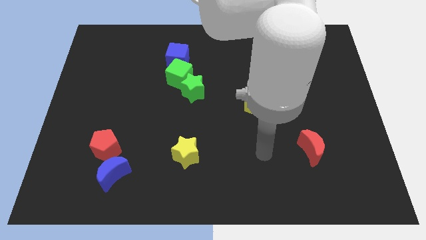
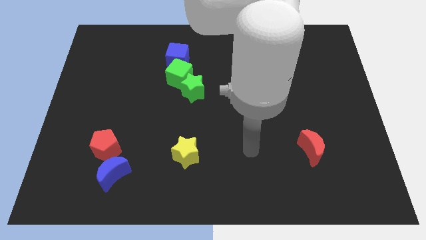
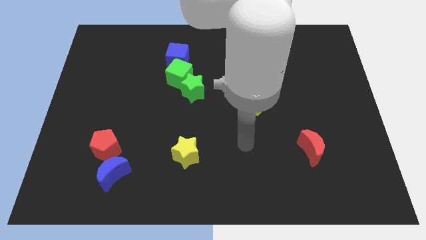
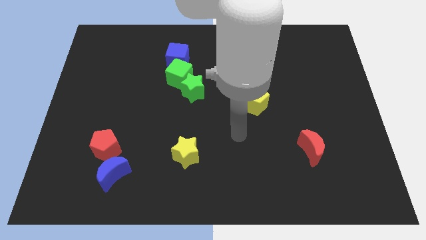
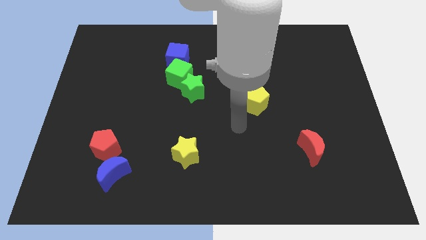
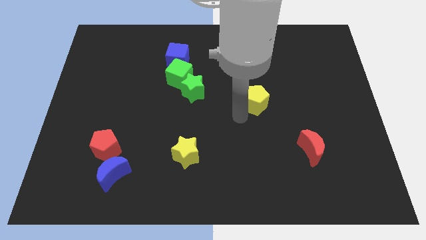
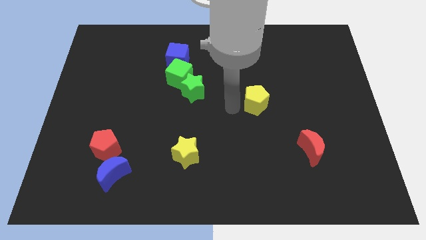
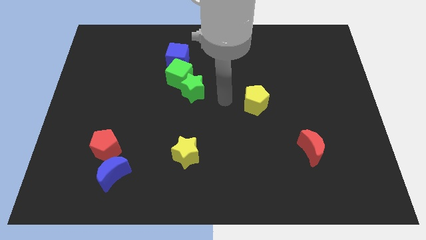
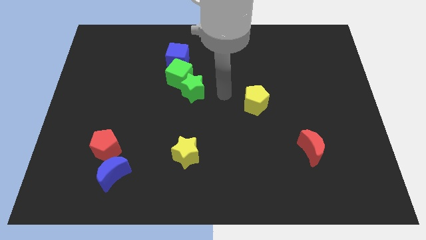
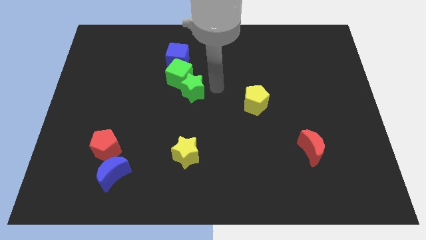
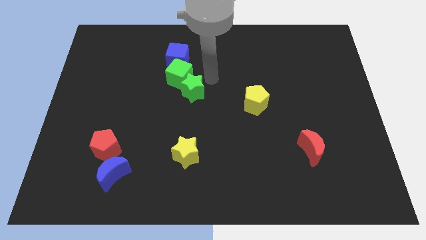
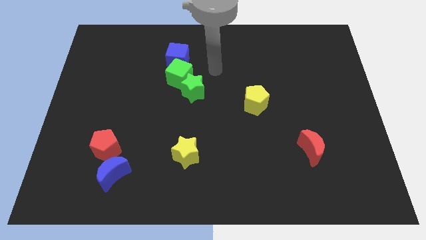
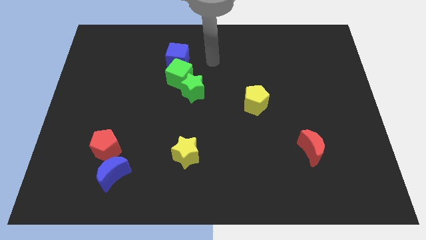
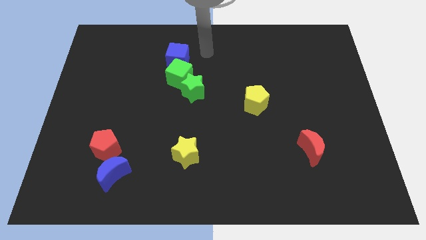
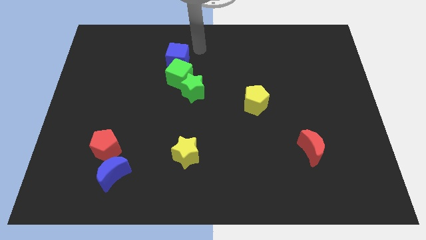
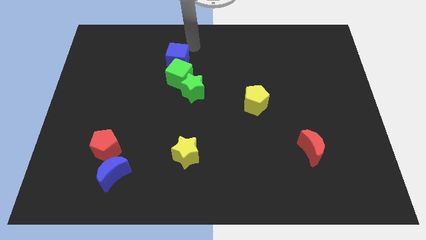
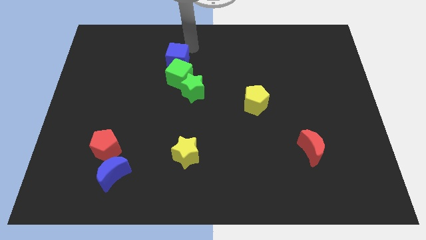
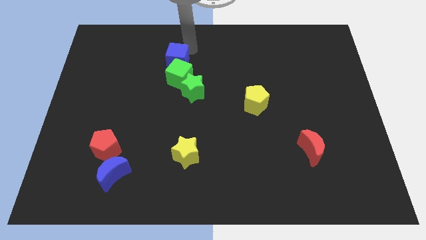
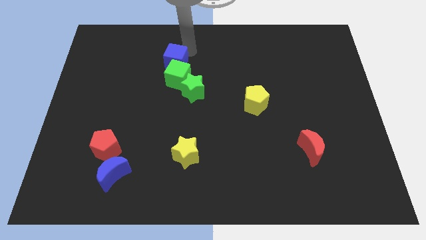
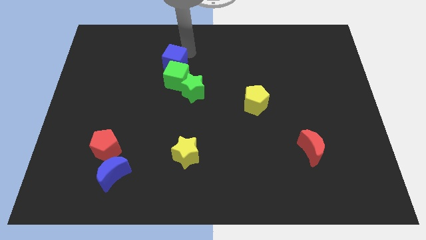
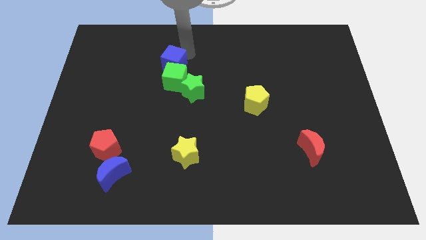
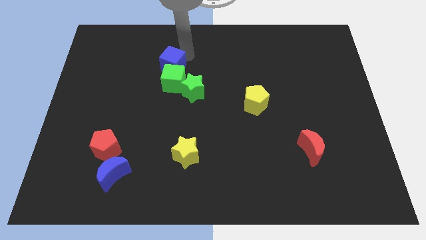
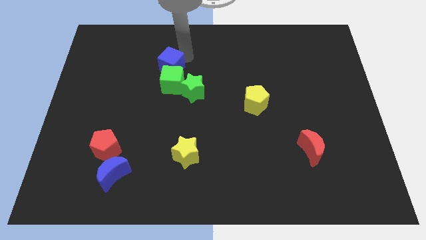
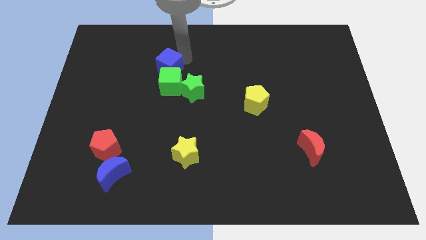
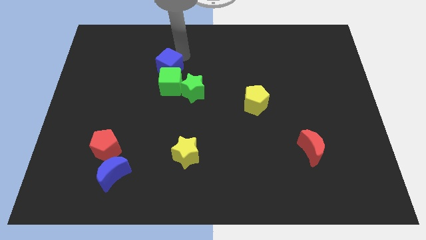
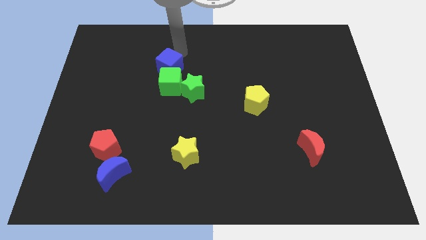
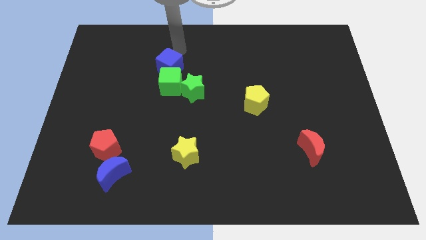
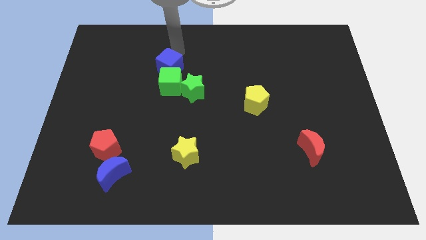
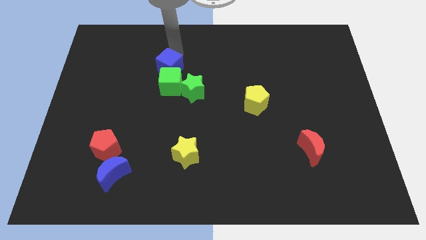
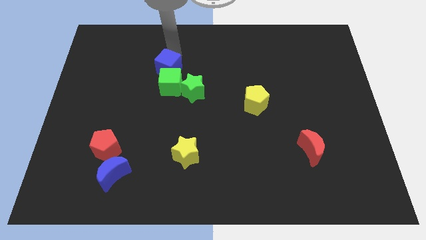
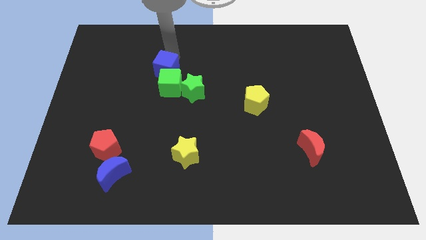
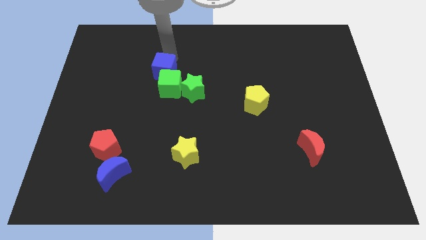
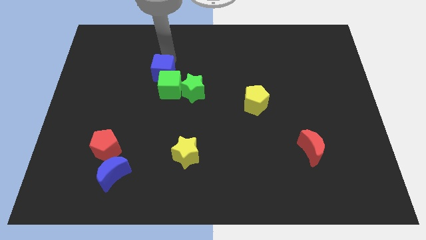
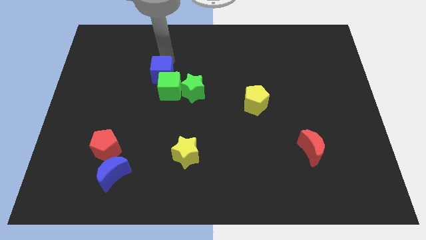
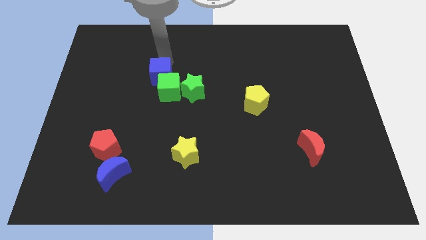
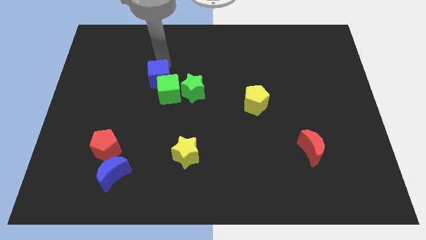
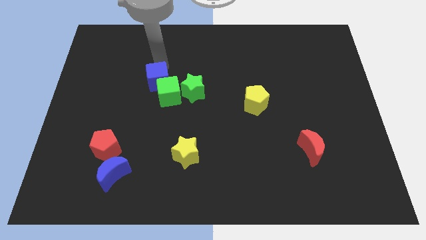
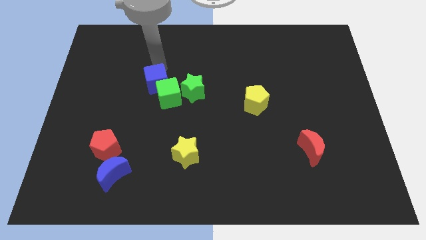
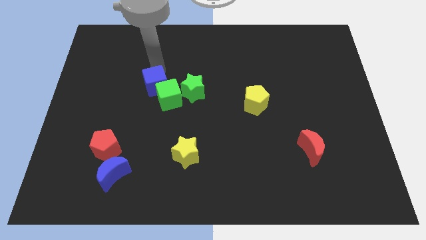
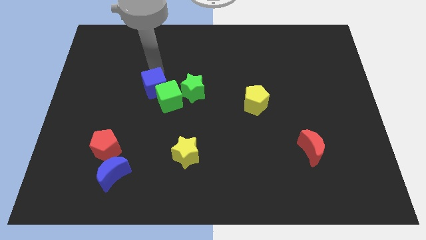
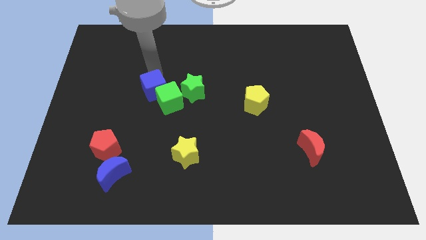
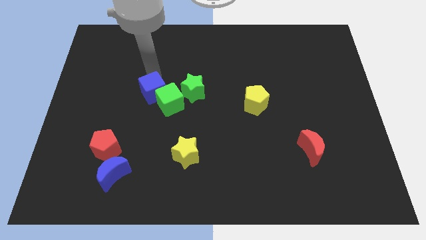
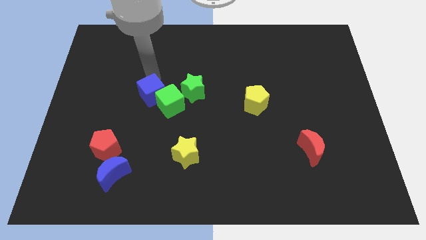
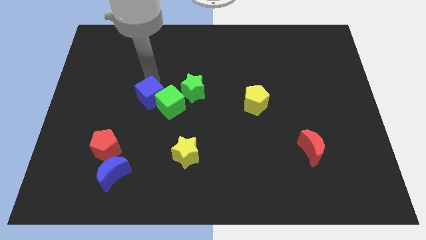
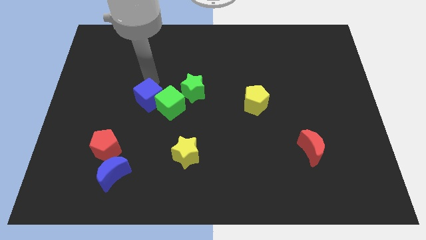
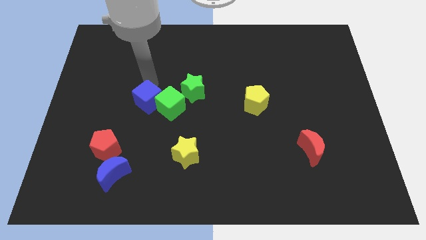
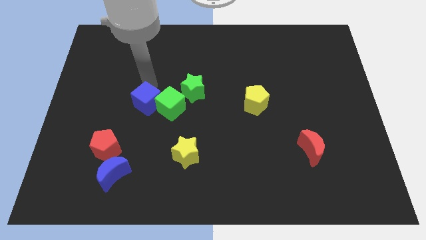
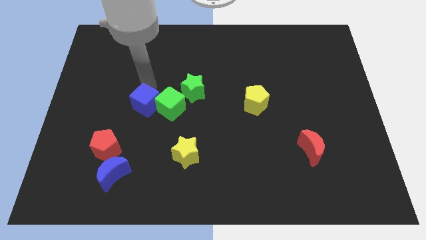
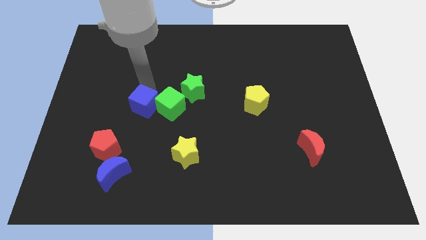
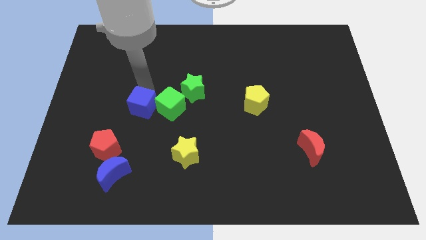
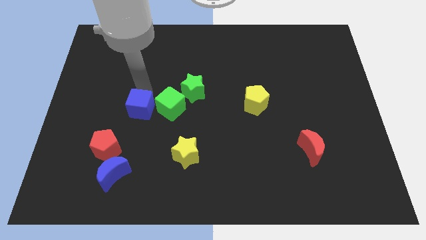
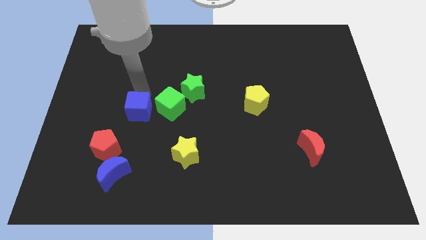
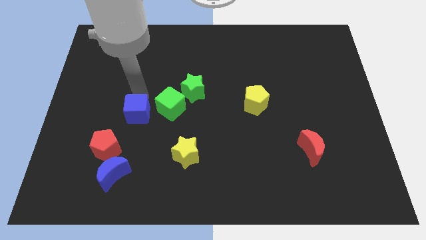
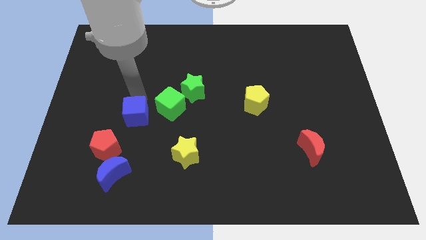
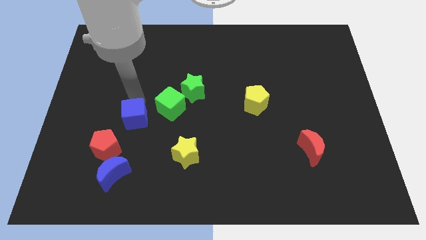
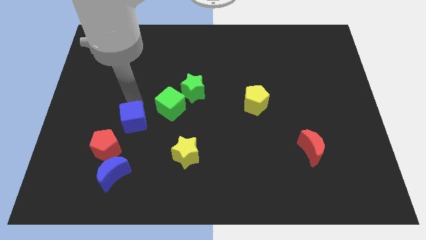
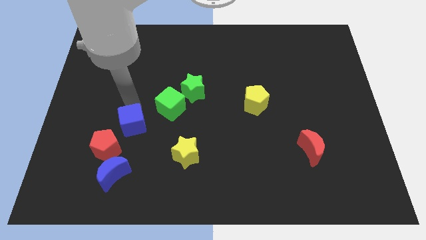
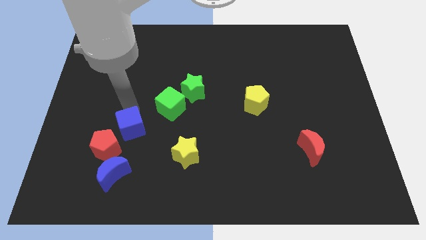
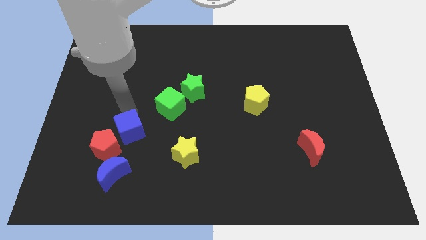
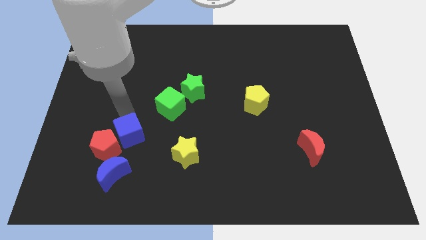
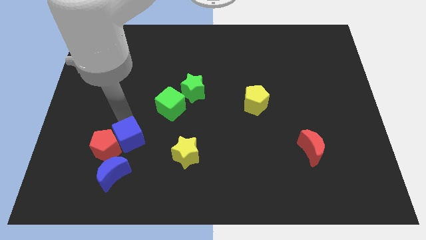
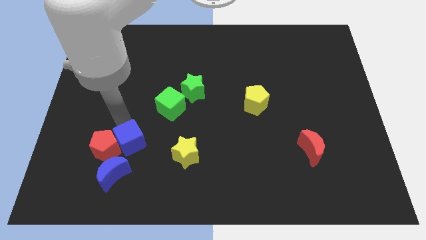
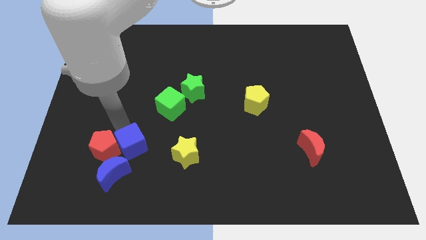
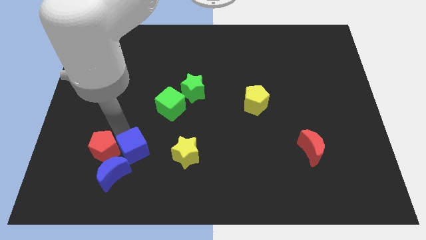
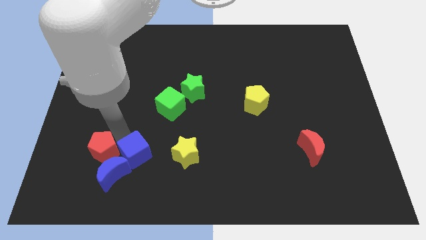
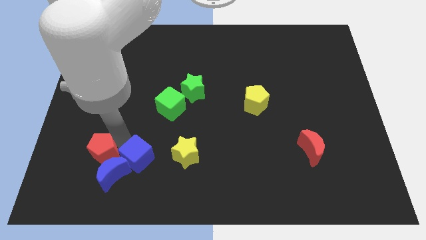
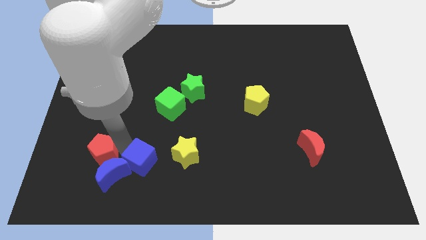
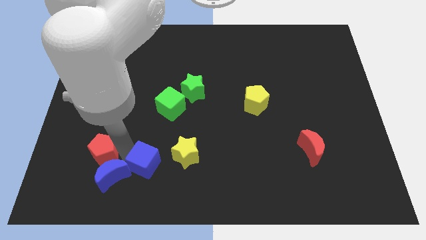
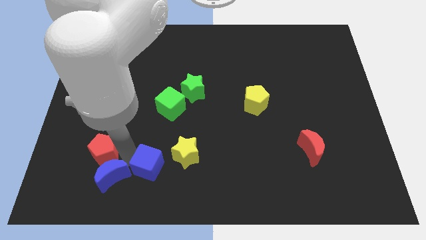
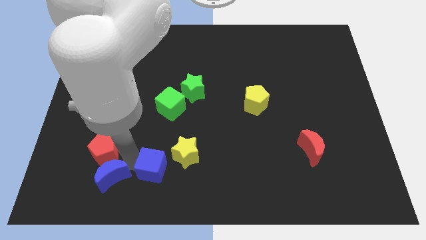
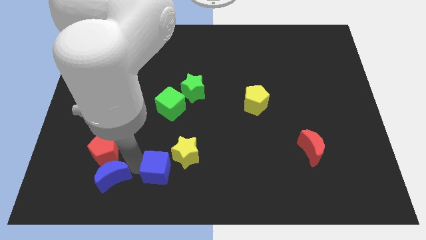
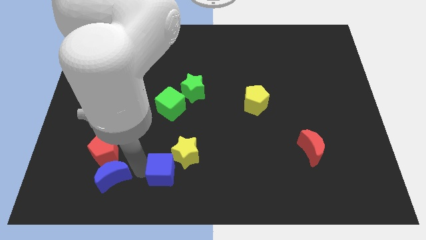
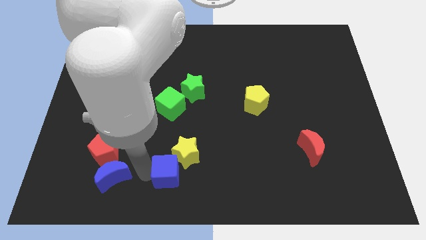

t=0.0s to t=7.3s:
slide the blue cube to the yellow star
